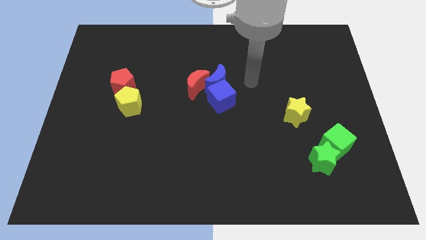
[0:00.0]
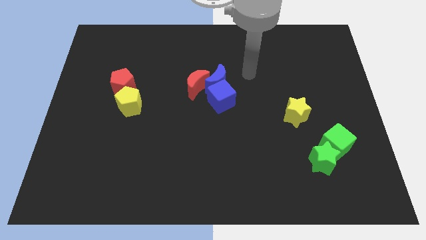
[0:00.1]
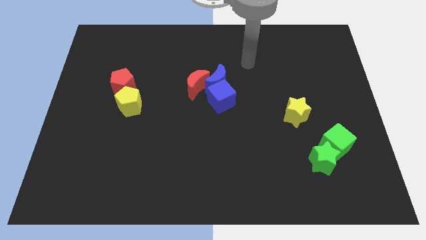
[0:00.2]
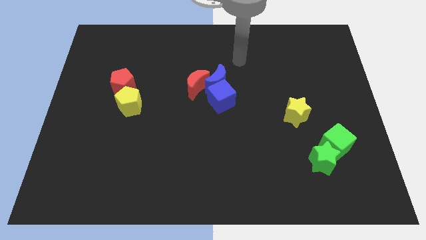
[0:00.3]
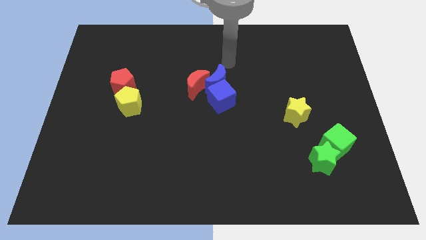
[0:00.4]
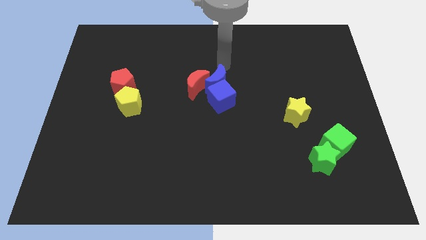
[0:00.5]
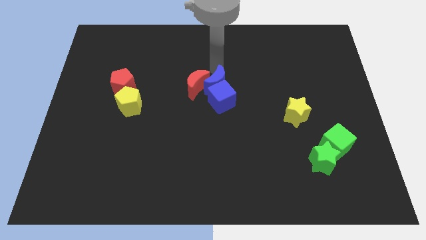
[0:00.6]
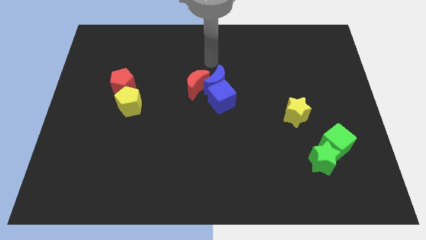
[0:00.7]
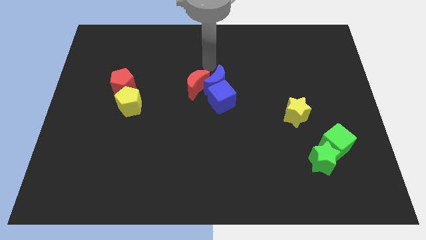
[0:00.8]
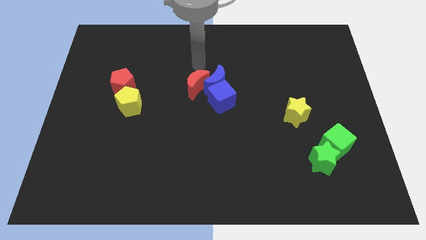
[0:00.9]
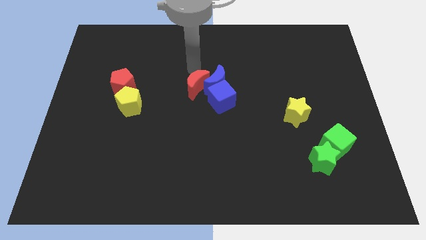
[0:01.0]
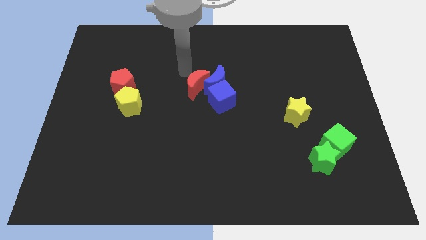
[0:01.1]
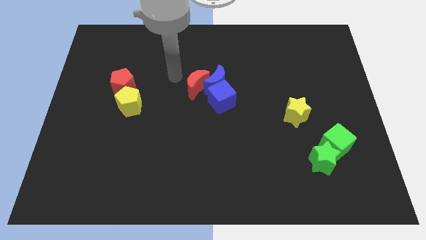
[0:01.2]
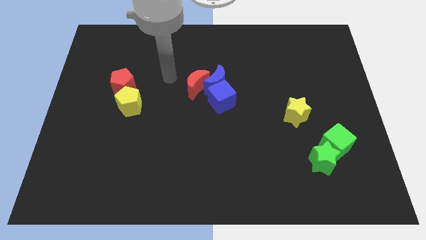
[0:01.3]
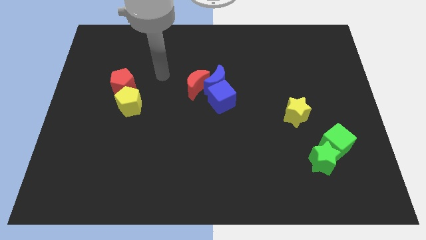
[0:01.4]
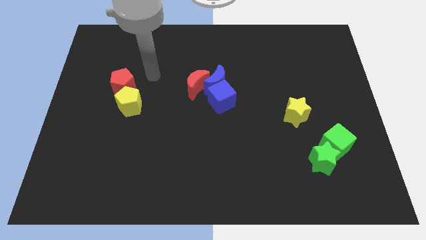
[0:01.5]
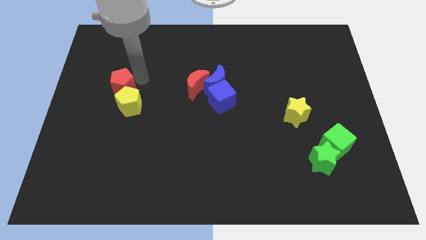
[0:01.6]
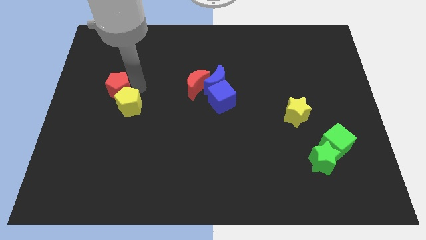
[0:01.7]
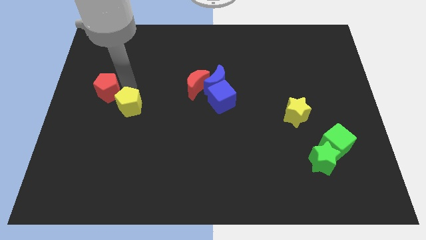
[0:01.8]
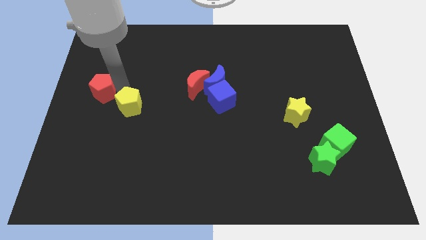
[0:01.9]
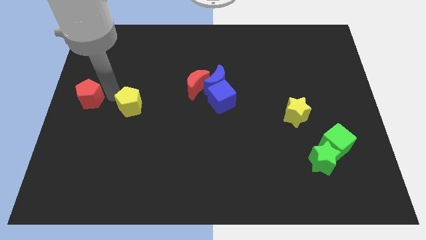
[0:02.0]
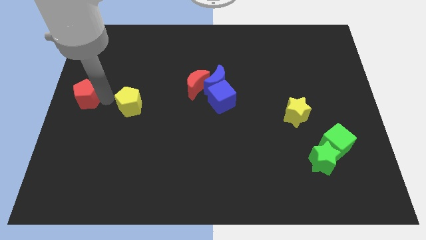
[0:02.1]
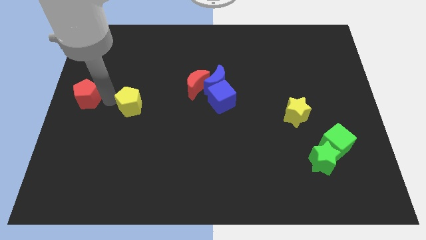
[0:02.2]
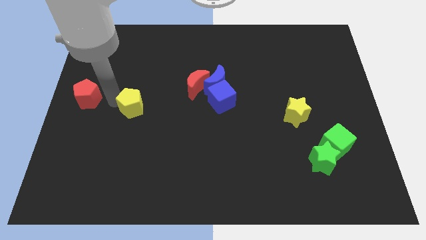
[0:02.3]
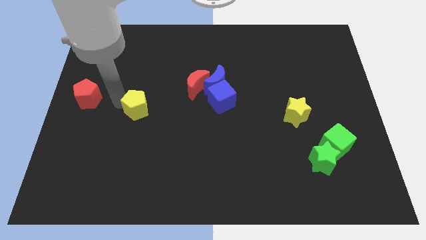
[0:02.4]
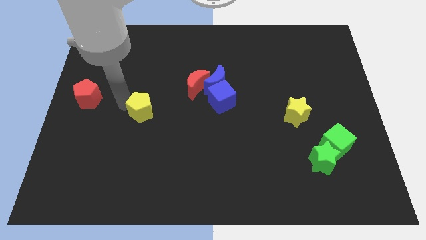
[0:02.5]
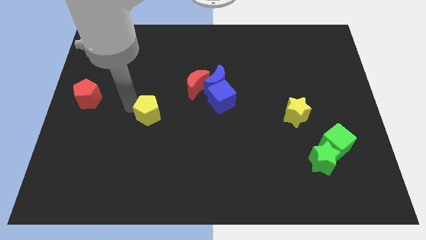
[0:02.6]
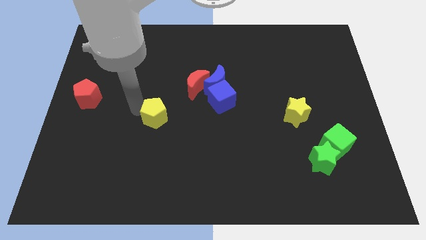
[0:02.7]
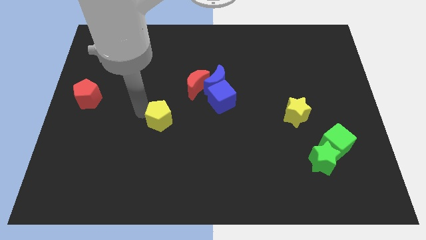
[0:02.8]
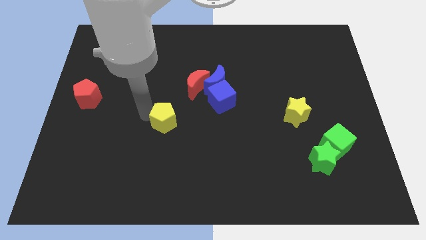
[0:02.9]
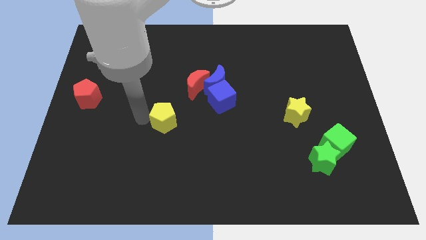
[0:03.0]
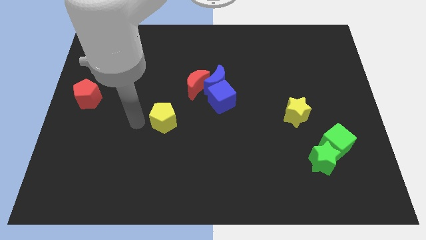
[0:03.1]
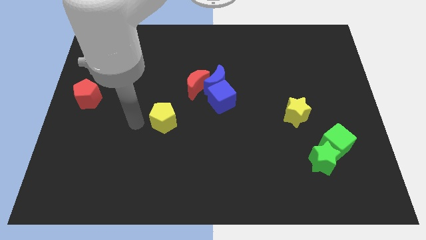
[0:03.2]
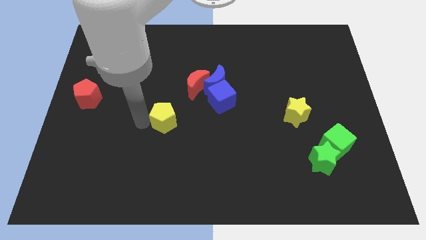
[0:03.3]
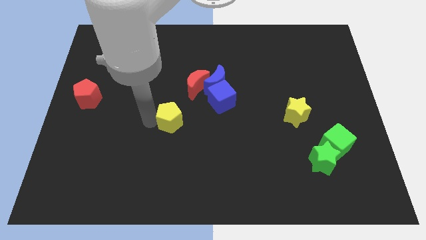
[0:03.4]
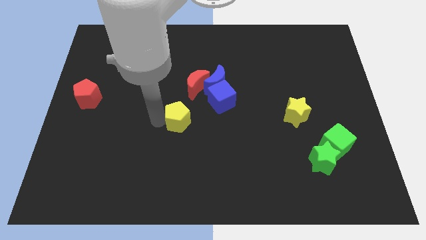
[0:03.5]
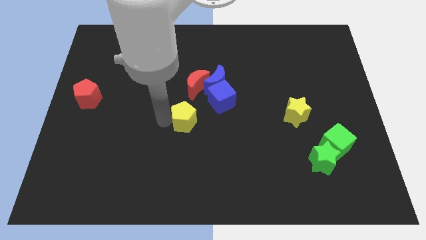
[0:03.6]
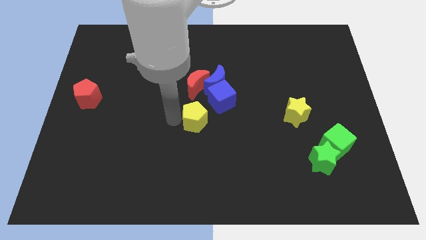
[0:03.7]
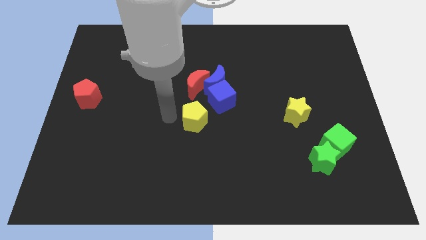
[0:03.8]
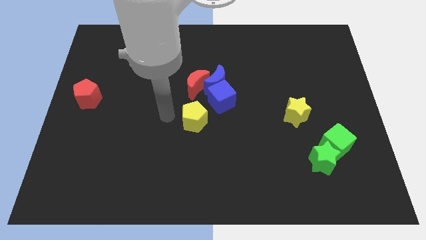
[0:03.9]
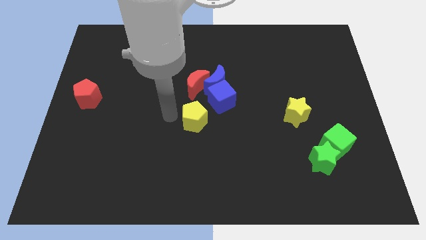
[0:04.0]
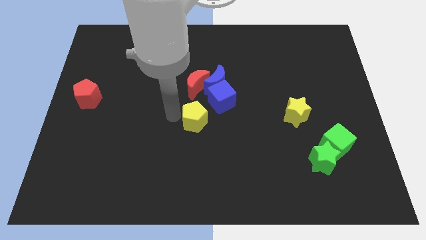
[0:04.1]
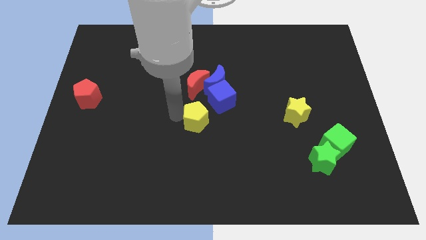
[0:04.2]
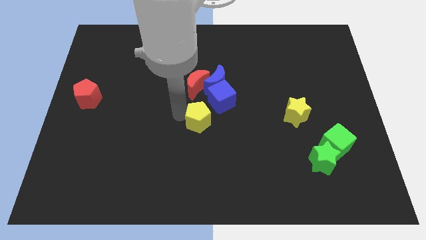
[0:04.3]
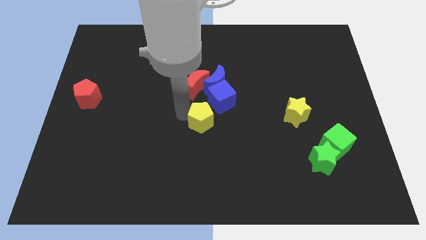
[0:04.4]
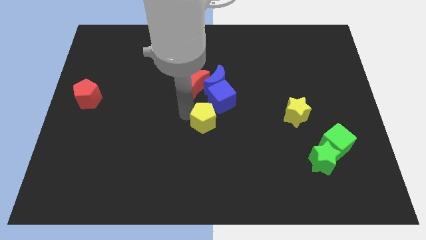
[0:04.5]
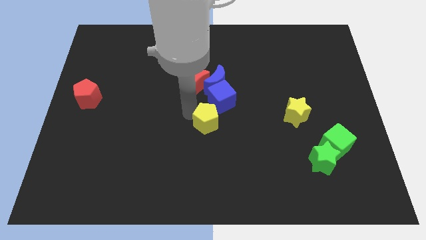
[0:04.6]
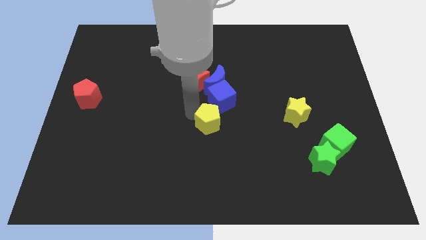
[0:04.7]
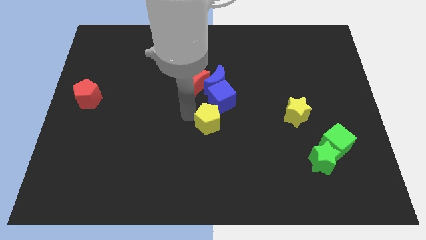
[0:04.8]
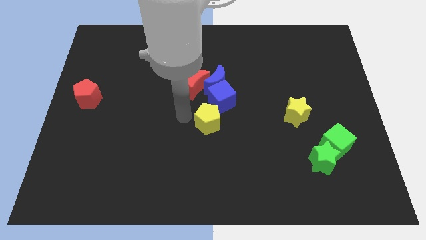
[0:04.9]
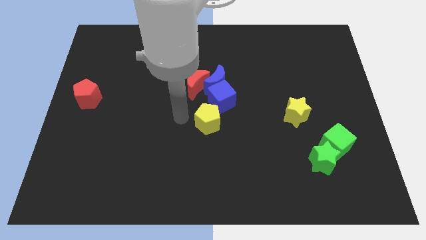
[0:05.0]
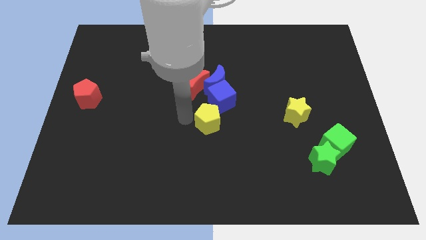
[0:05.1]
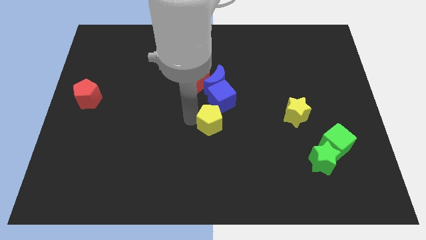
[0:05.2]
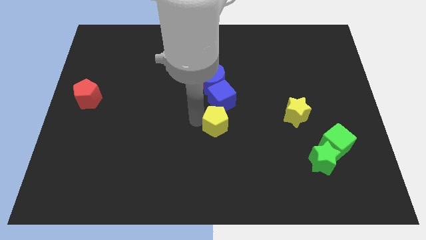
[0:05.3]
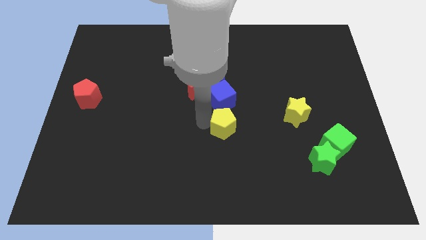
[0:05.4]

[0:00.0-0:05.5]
slide the yellow pentagon to the right

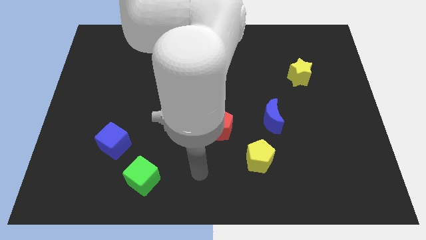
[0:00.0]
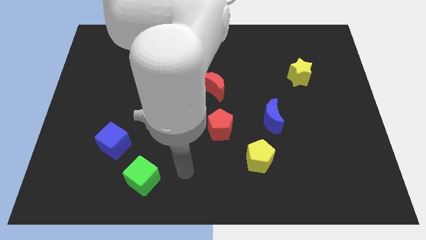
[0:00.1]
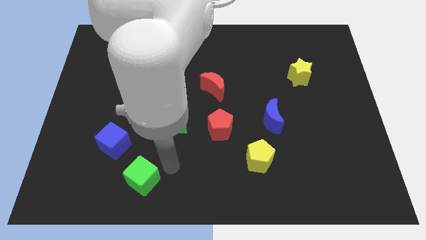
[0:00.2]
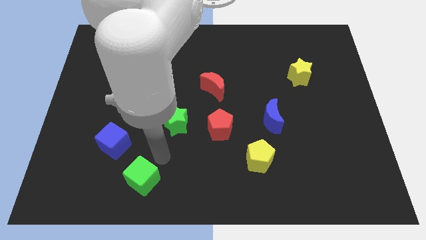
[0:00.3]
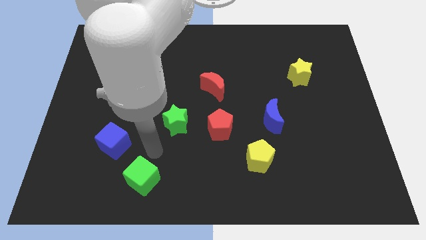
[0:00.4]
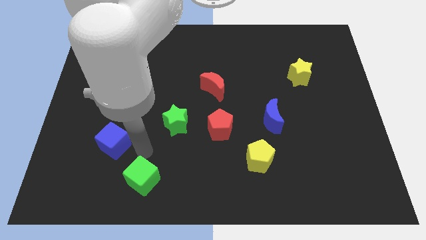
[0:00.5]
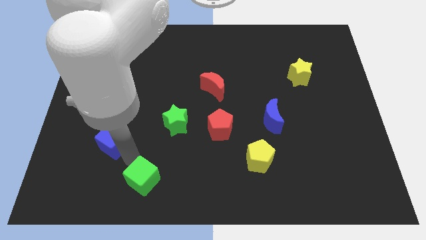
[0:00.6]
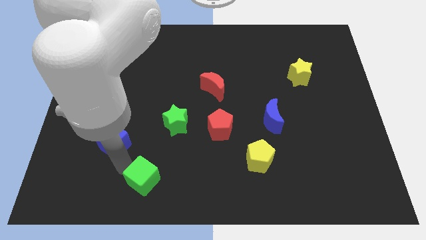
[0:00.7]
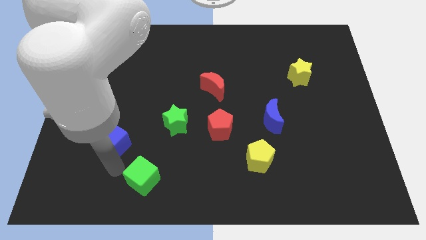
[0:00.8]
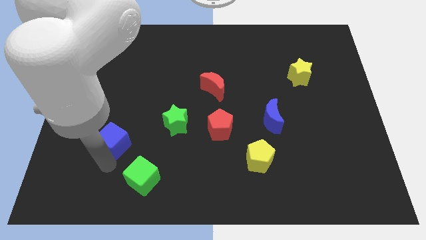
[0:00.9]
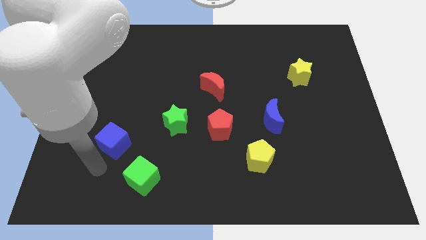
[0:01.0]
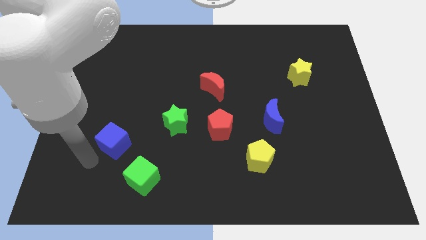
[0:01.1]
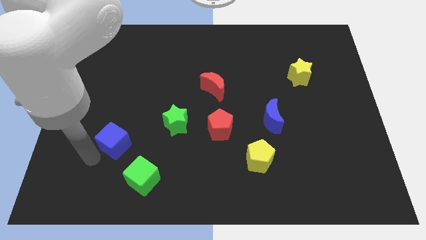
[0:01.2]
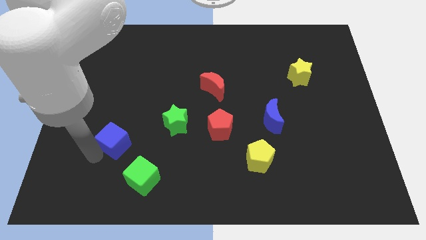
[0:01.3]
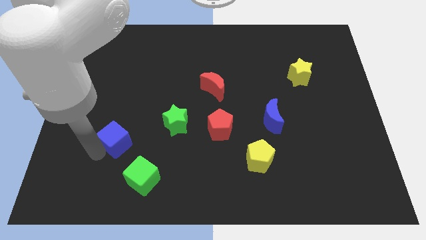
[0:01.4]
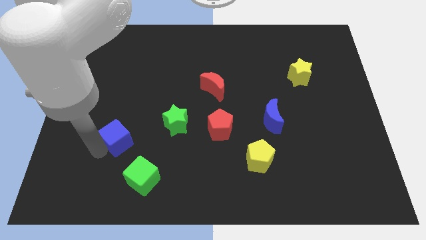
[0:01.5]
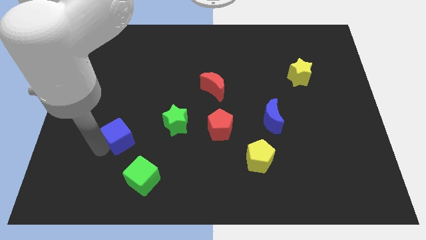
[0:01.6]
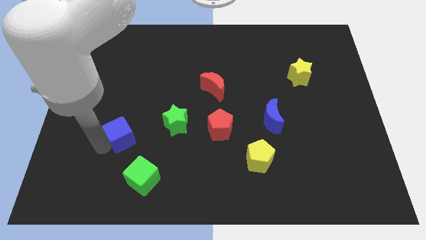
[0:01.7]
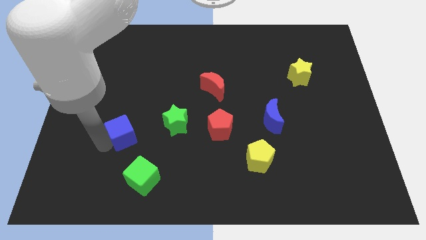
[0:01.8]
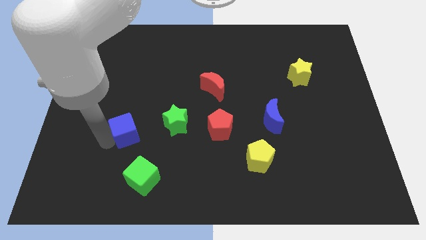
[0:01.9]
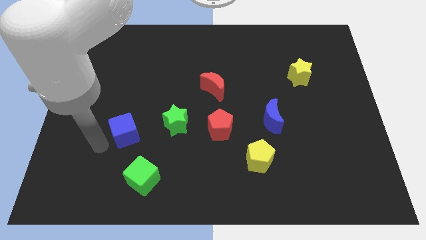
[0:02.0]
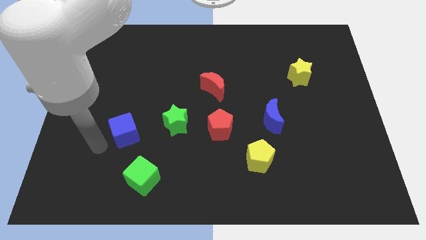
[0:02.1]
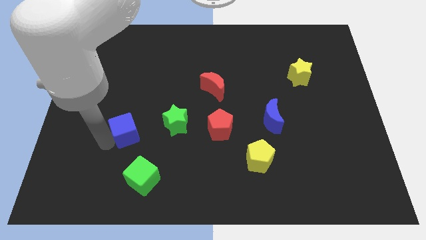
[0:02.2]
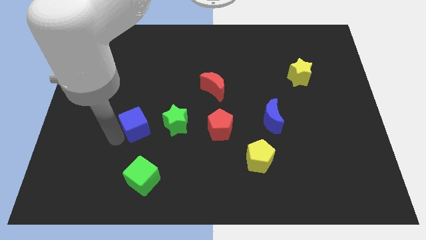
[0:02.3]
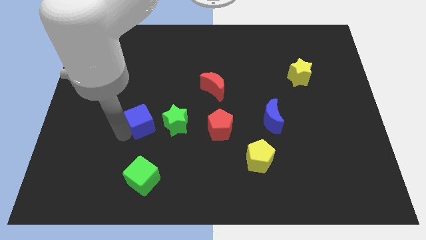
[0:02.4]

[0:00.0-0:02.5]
move the blue cube a little bit up and then right
